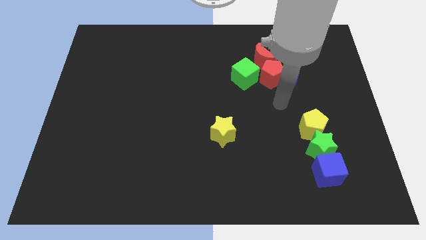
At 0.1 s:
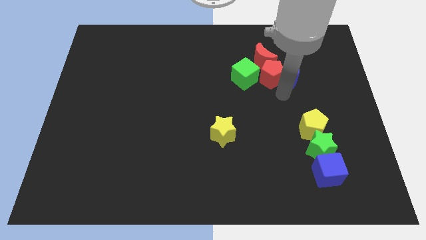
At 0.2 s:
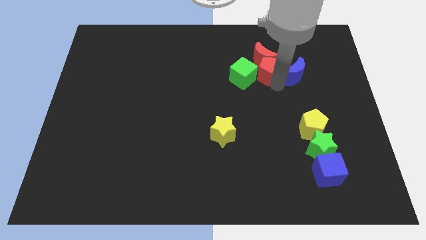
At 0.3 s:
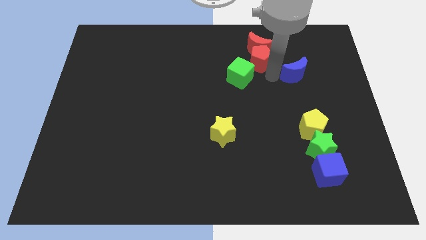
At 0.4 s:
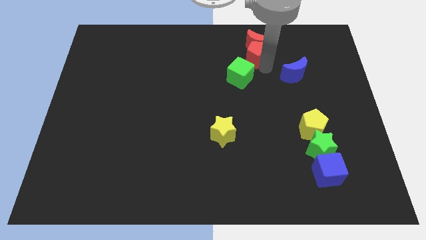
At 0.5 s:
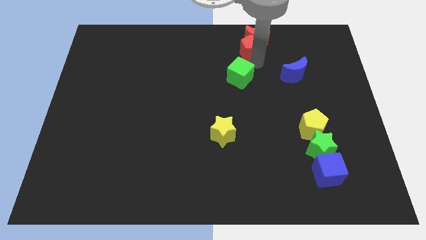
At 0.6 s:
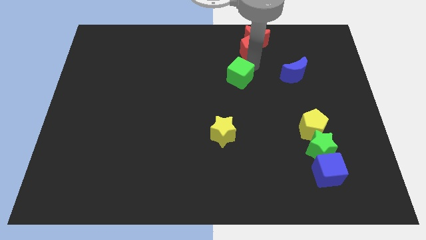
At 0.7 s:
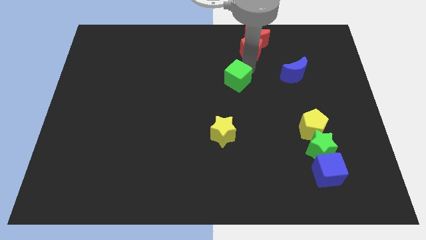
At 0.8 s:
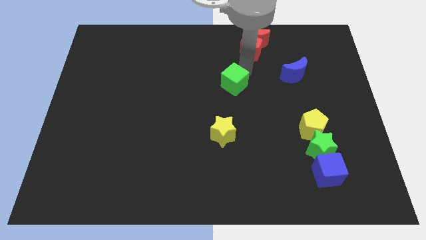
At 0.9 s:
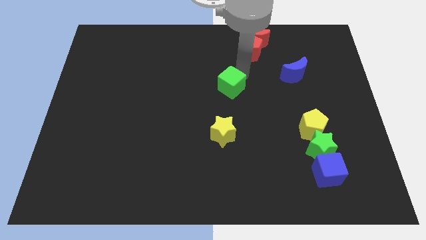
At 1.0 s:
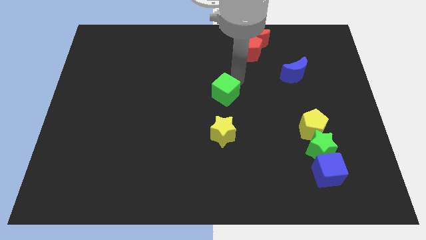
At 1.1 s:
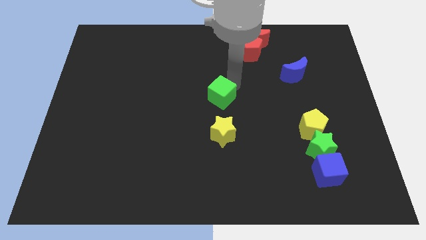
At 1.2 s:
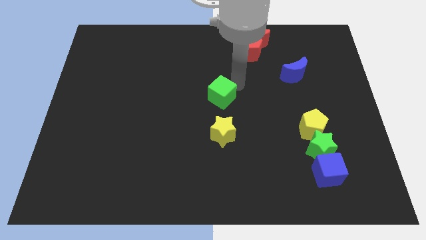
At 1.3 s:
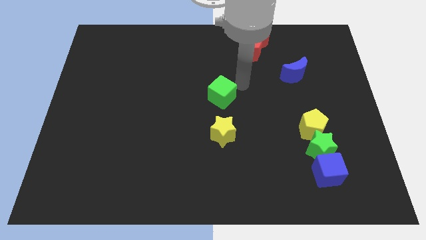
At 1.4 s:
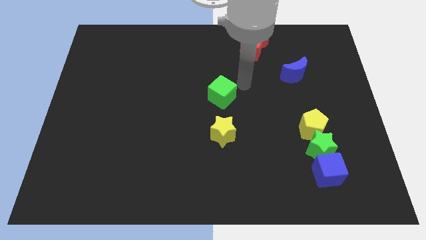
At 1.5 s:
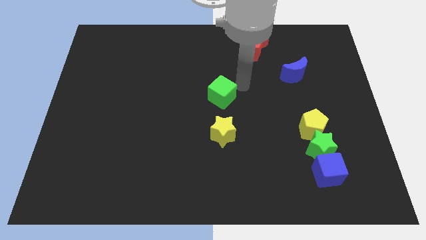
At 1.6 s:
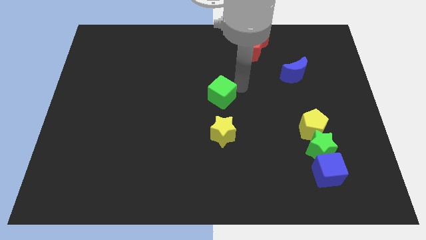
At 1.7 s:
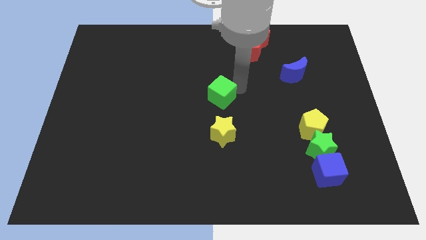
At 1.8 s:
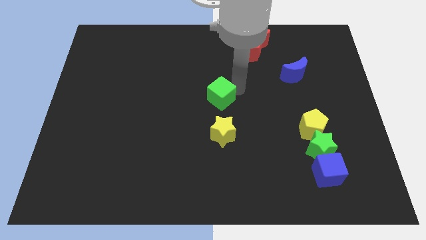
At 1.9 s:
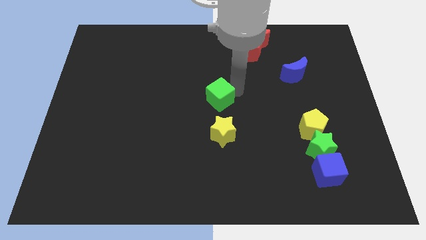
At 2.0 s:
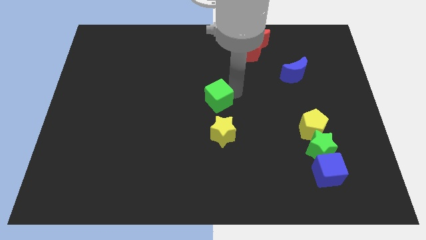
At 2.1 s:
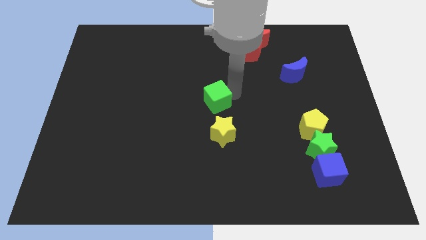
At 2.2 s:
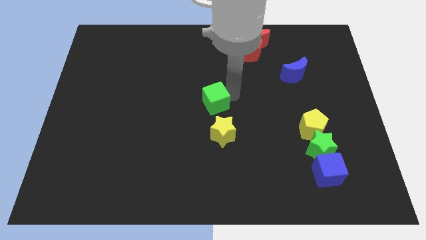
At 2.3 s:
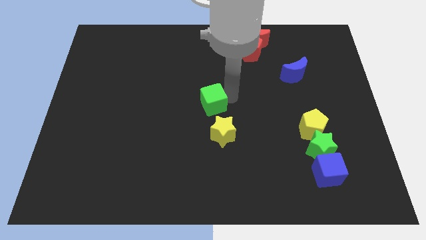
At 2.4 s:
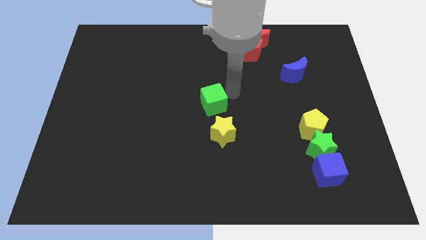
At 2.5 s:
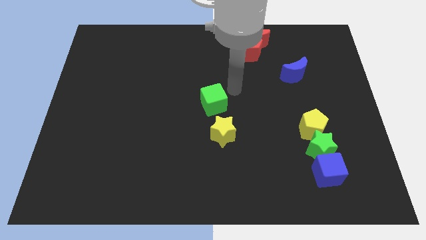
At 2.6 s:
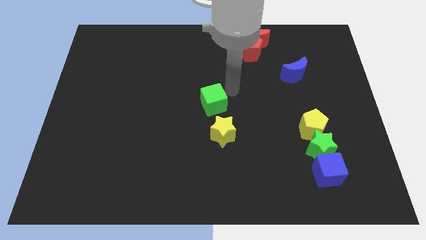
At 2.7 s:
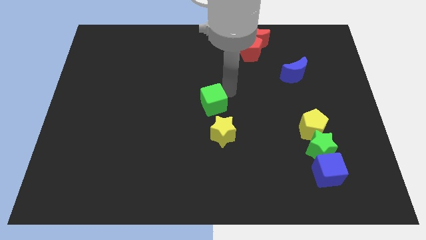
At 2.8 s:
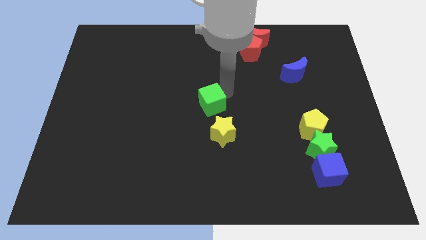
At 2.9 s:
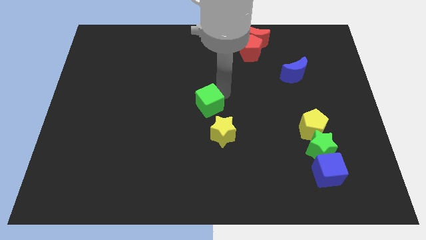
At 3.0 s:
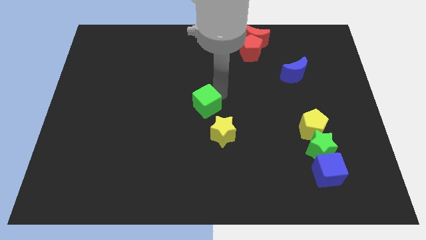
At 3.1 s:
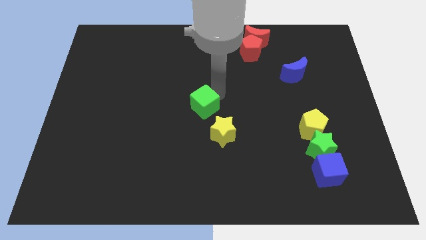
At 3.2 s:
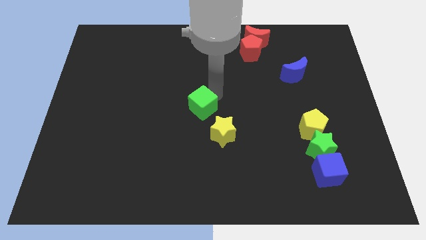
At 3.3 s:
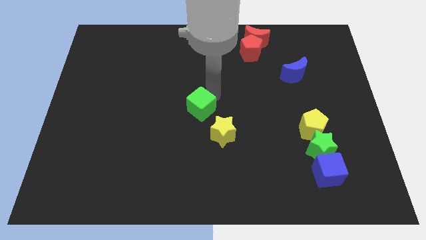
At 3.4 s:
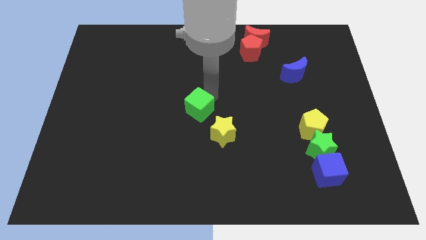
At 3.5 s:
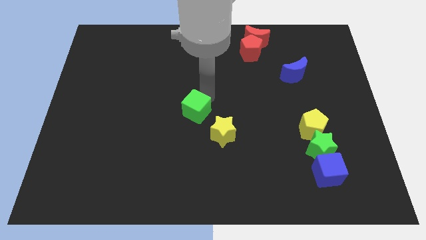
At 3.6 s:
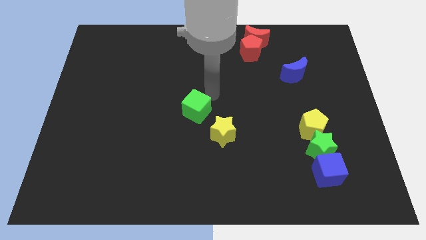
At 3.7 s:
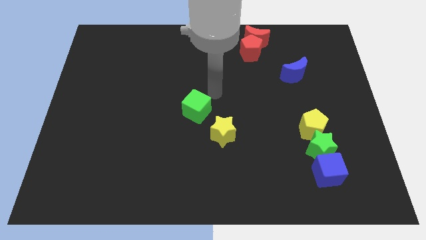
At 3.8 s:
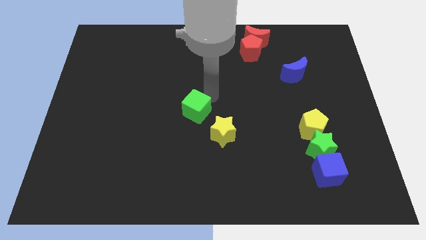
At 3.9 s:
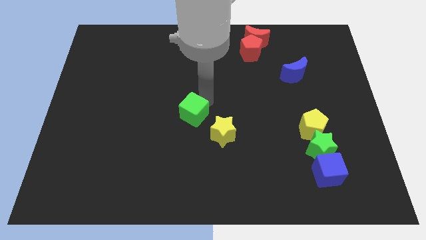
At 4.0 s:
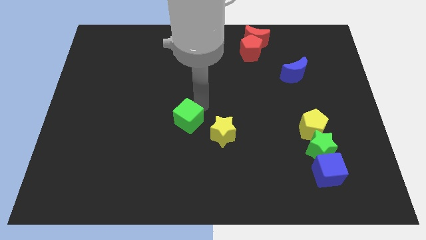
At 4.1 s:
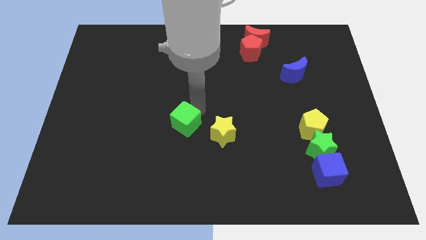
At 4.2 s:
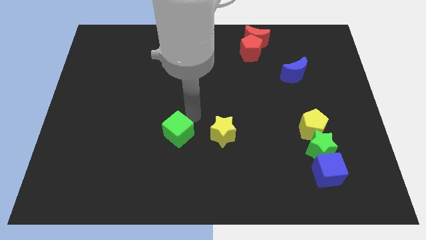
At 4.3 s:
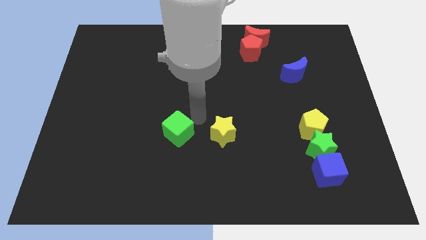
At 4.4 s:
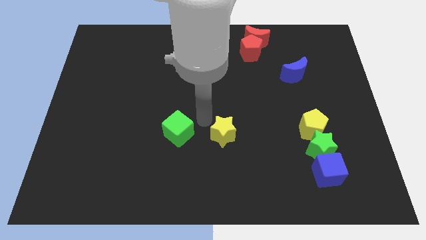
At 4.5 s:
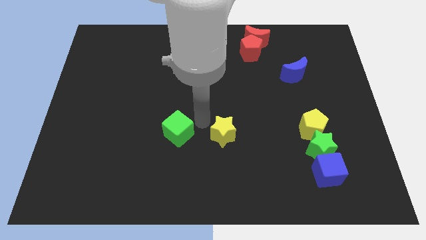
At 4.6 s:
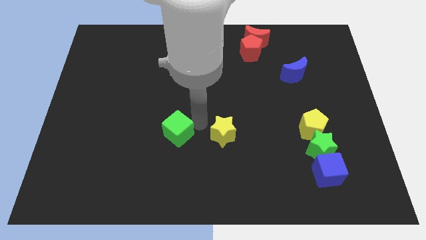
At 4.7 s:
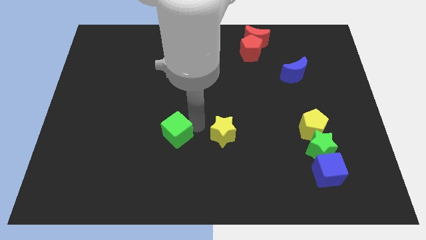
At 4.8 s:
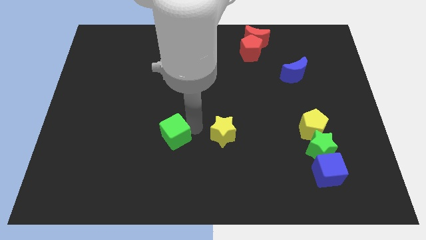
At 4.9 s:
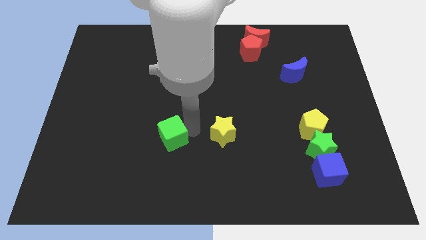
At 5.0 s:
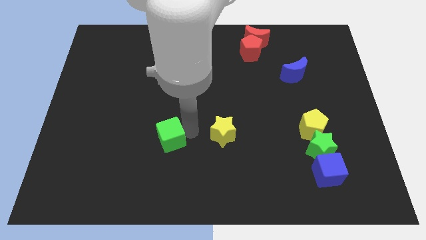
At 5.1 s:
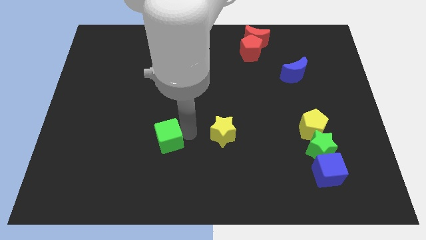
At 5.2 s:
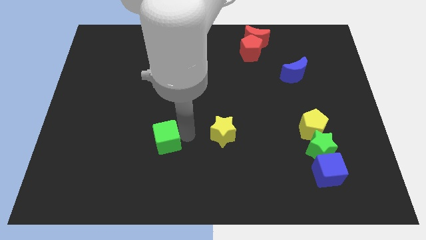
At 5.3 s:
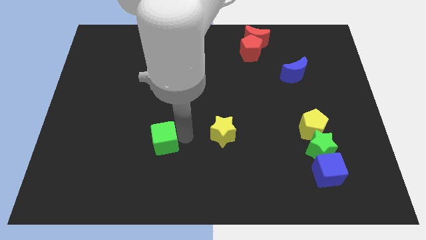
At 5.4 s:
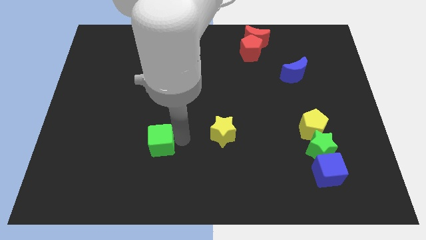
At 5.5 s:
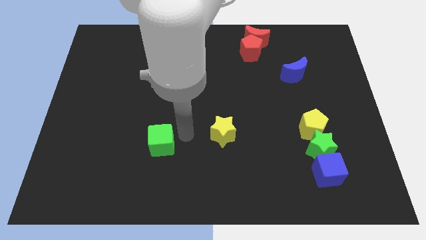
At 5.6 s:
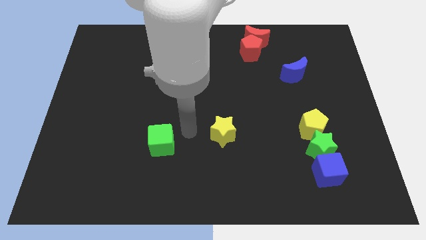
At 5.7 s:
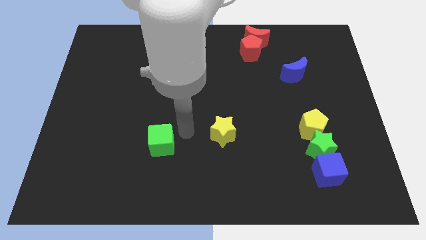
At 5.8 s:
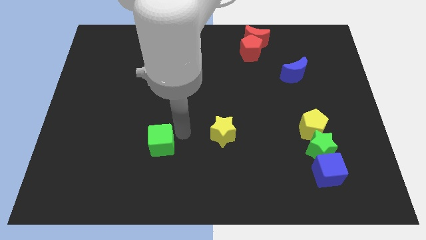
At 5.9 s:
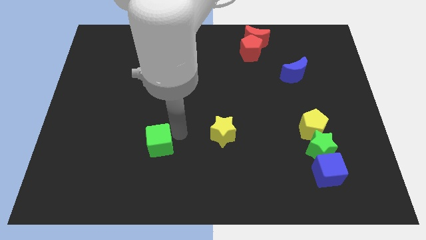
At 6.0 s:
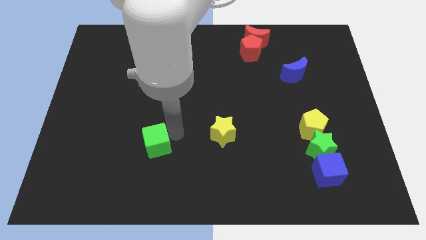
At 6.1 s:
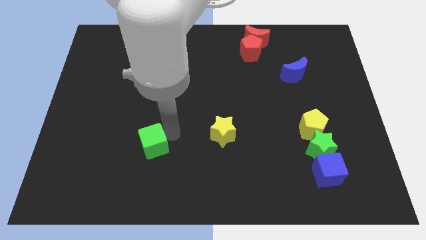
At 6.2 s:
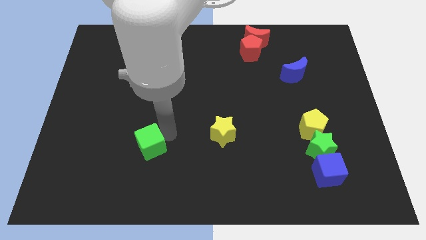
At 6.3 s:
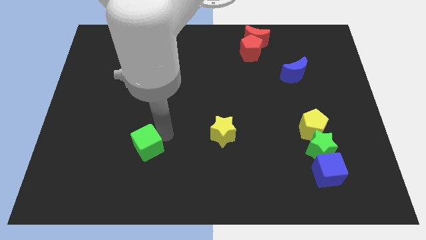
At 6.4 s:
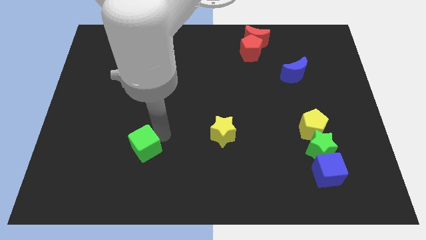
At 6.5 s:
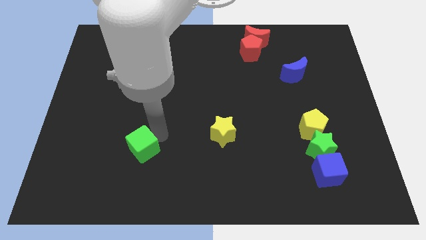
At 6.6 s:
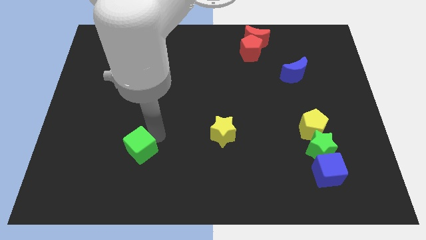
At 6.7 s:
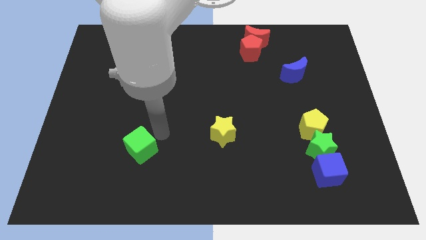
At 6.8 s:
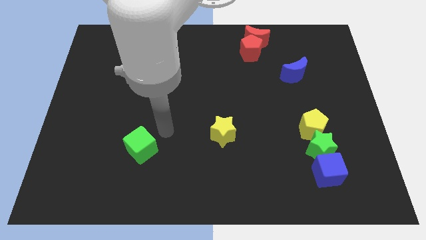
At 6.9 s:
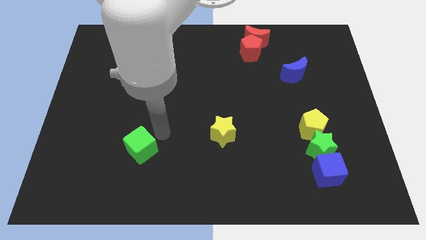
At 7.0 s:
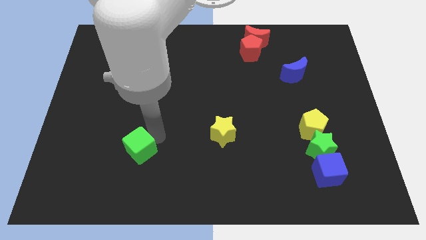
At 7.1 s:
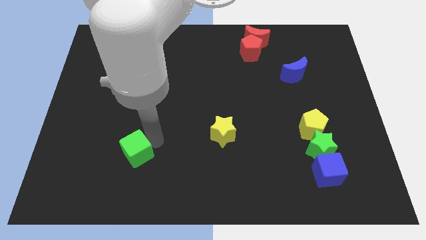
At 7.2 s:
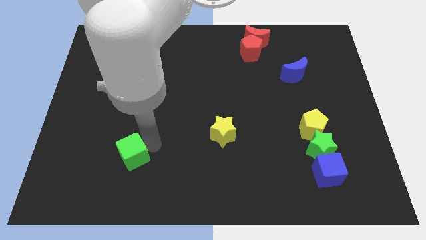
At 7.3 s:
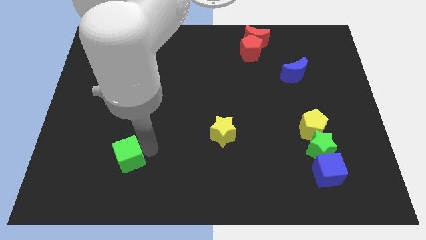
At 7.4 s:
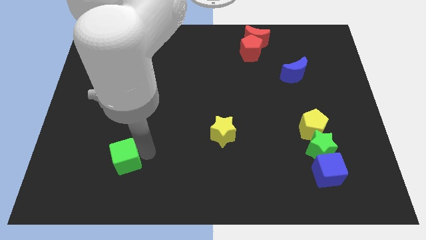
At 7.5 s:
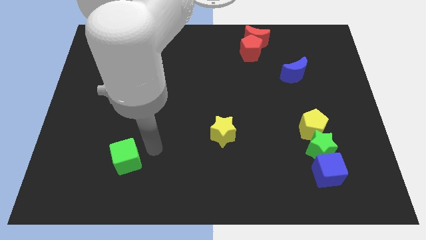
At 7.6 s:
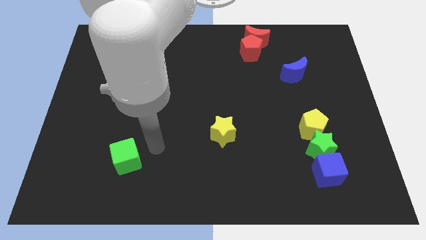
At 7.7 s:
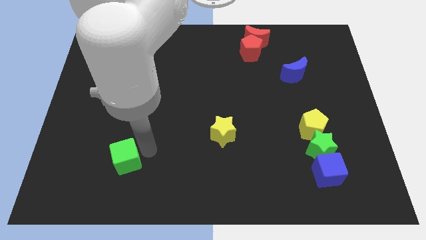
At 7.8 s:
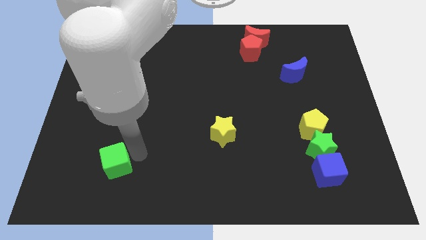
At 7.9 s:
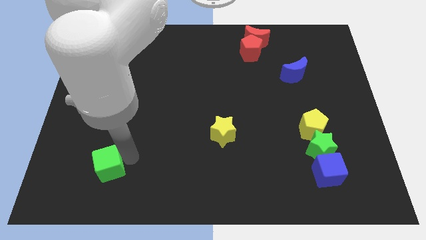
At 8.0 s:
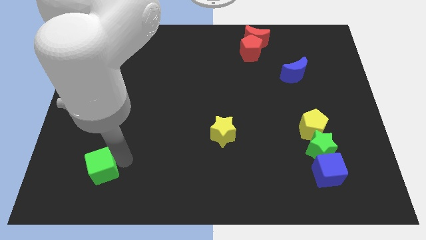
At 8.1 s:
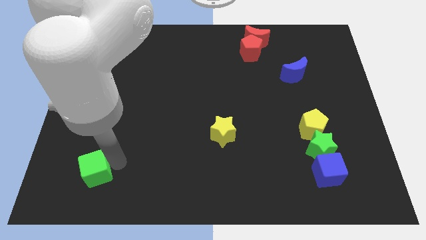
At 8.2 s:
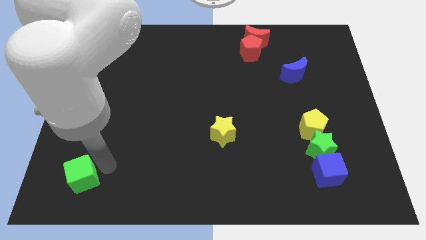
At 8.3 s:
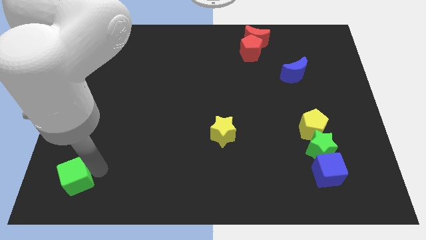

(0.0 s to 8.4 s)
push the green cube to the lower left corner
